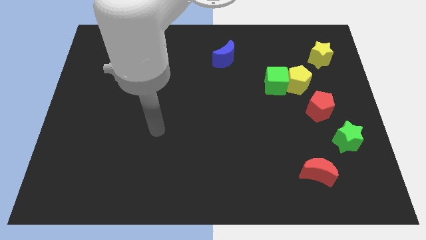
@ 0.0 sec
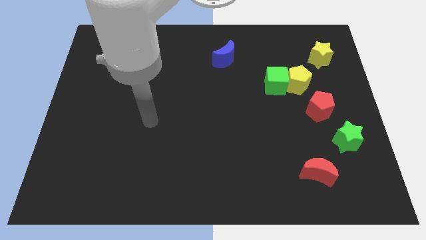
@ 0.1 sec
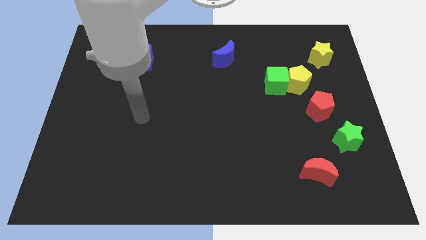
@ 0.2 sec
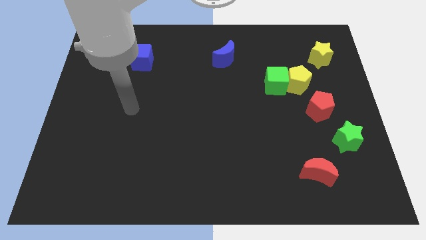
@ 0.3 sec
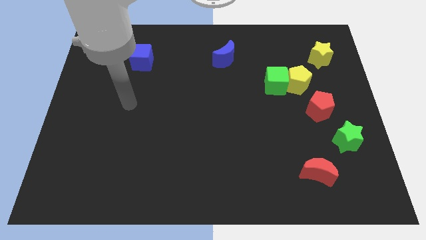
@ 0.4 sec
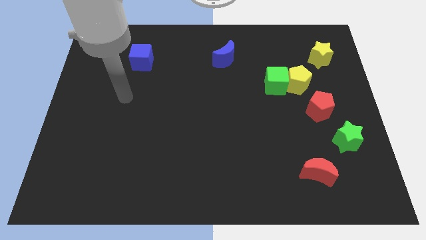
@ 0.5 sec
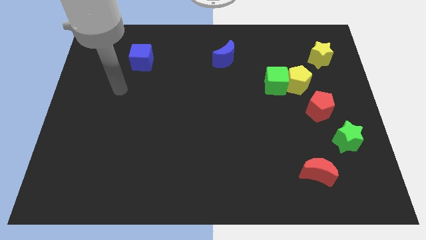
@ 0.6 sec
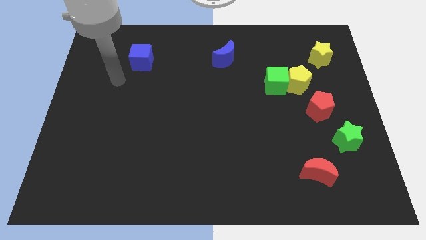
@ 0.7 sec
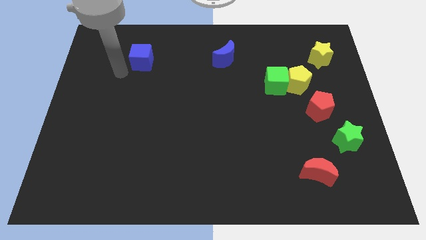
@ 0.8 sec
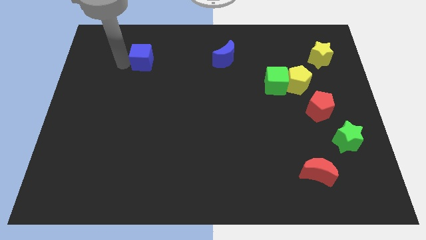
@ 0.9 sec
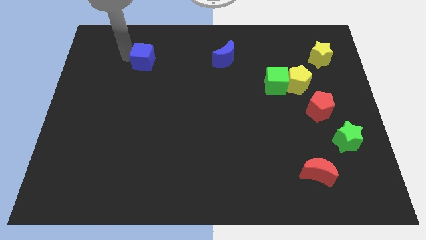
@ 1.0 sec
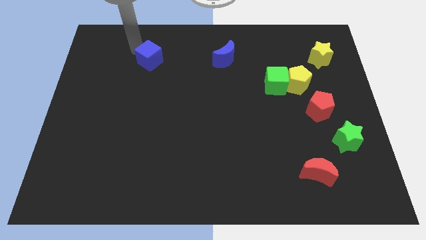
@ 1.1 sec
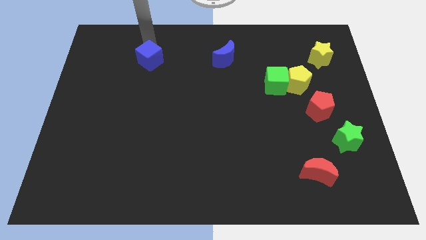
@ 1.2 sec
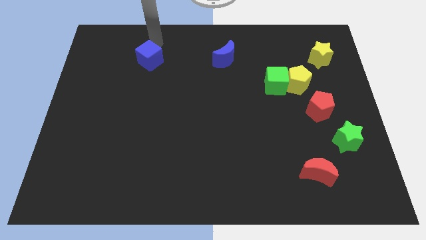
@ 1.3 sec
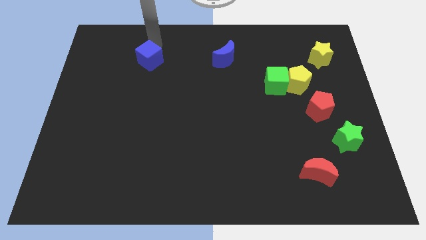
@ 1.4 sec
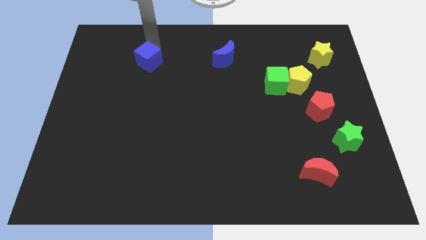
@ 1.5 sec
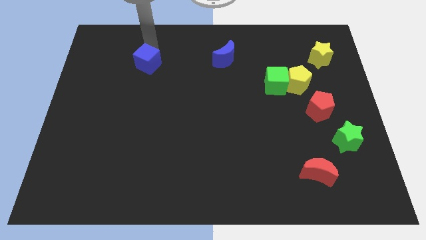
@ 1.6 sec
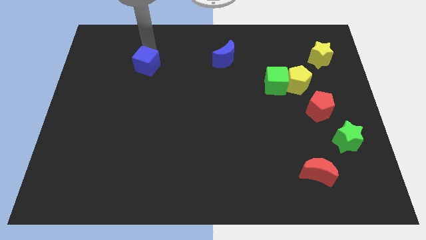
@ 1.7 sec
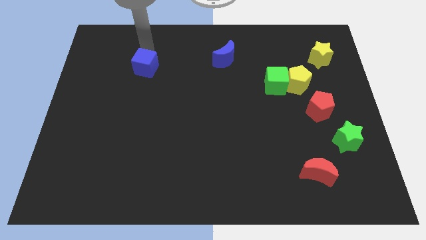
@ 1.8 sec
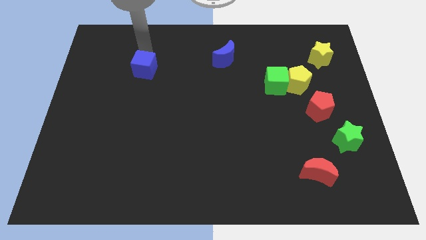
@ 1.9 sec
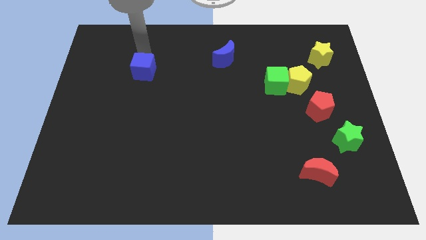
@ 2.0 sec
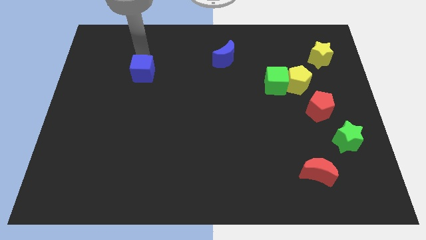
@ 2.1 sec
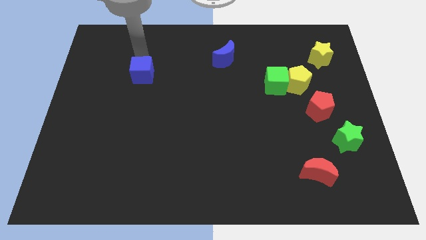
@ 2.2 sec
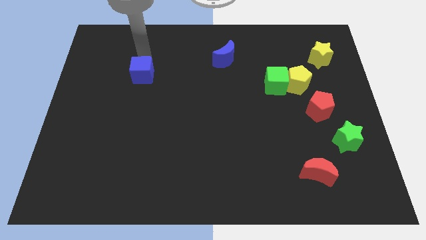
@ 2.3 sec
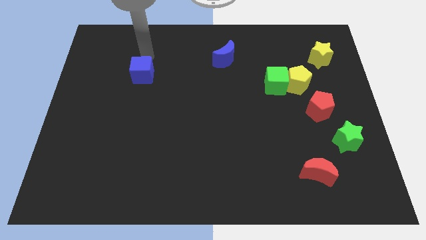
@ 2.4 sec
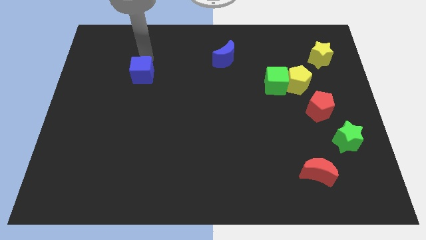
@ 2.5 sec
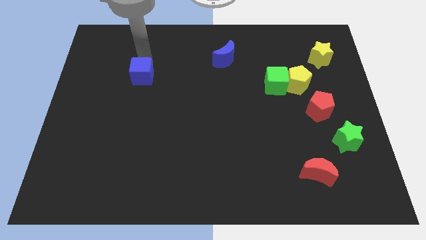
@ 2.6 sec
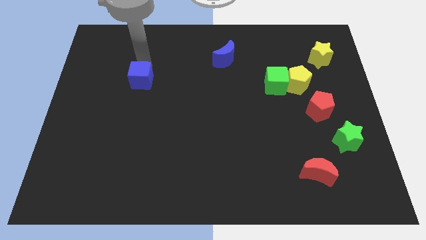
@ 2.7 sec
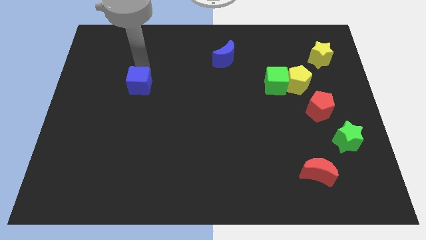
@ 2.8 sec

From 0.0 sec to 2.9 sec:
slide the blue cube a bit down

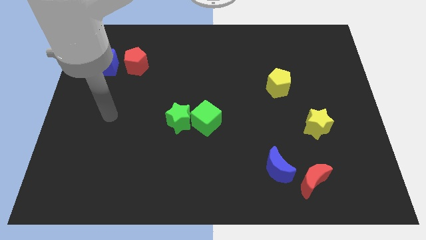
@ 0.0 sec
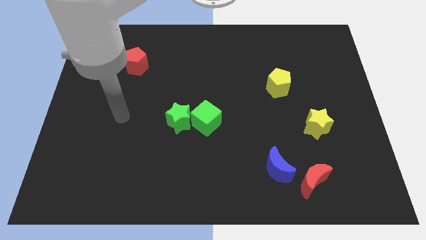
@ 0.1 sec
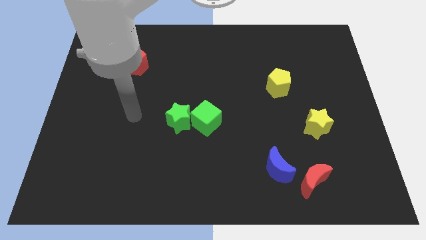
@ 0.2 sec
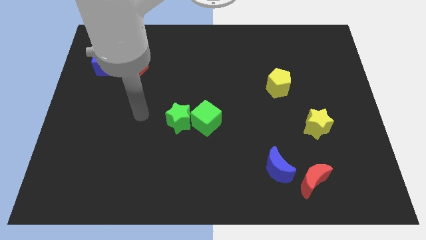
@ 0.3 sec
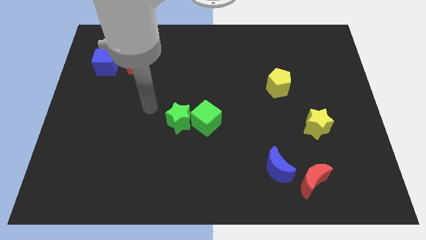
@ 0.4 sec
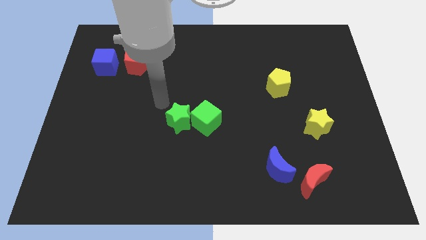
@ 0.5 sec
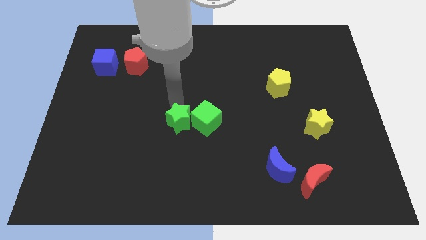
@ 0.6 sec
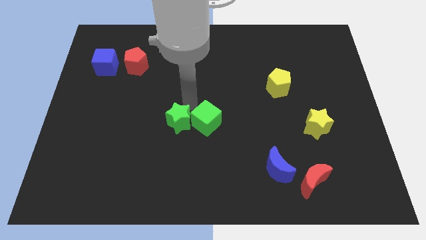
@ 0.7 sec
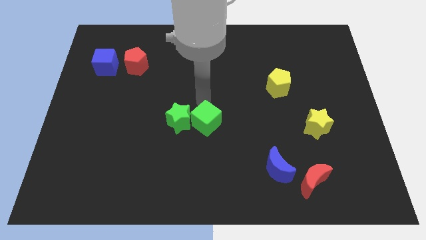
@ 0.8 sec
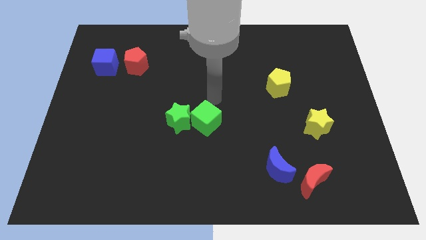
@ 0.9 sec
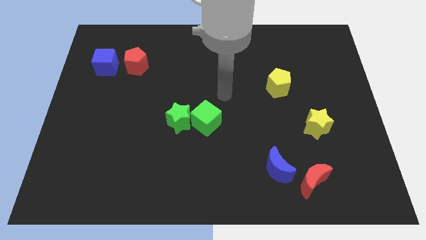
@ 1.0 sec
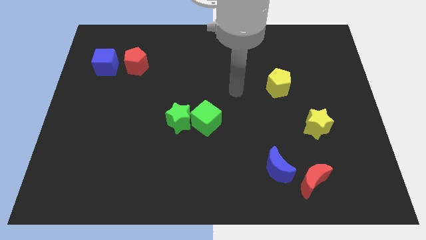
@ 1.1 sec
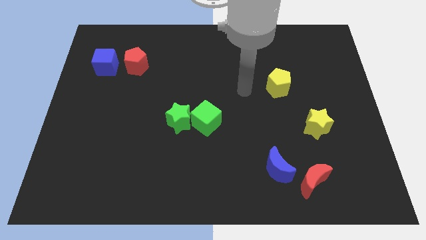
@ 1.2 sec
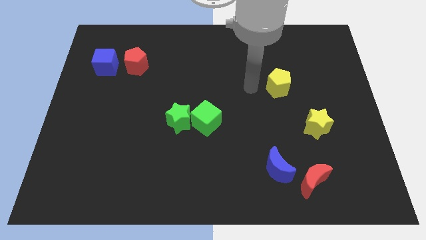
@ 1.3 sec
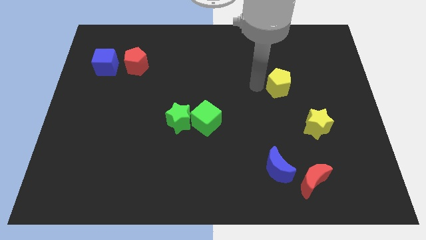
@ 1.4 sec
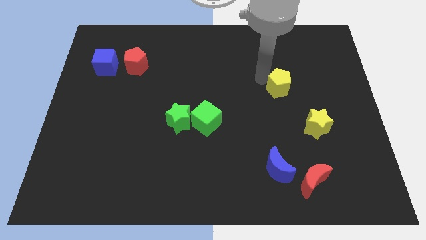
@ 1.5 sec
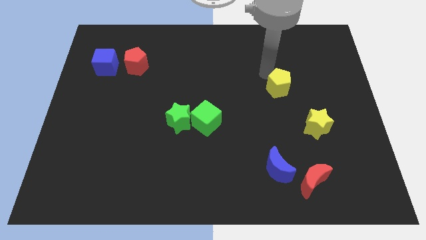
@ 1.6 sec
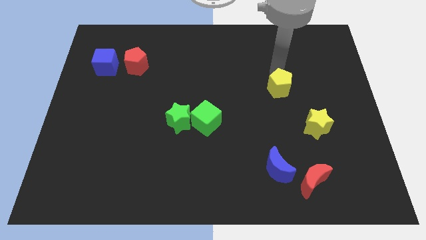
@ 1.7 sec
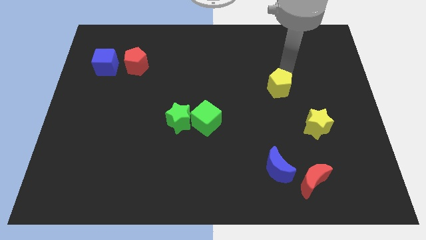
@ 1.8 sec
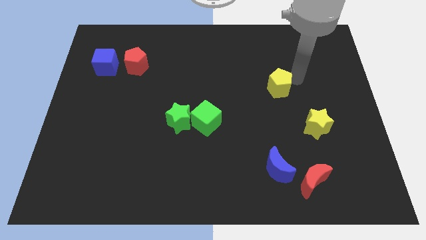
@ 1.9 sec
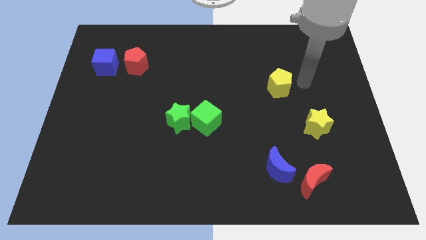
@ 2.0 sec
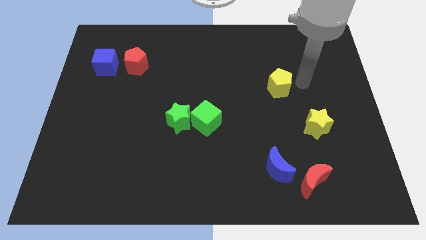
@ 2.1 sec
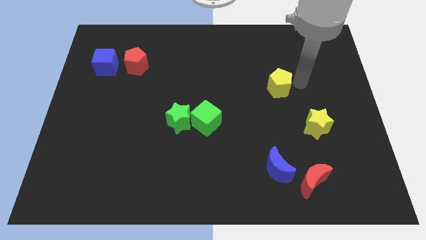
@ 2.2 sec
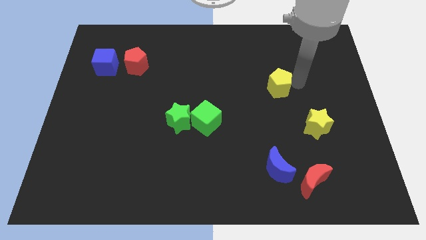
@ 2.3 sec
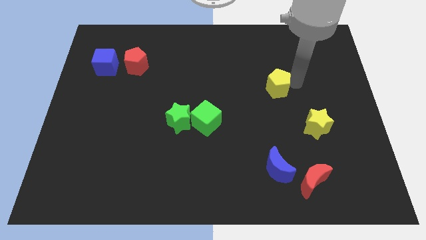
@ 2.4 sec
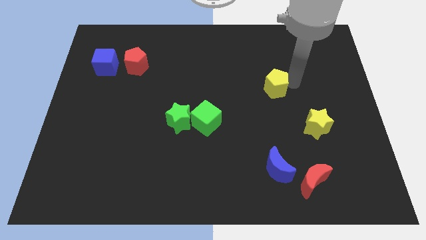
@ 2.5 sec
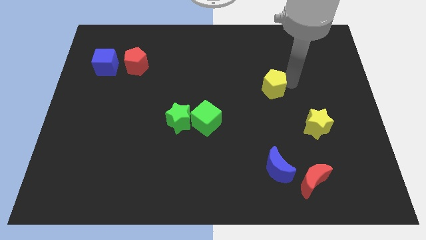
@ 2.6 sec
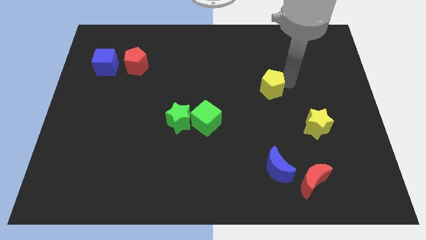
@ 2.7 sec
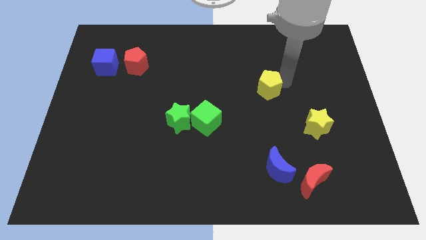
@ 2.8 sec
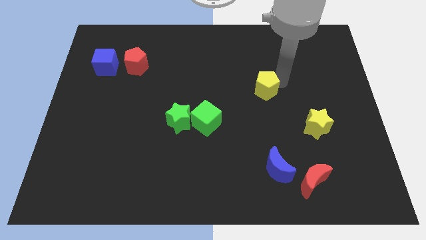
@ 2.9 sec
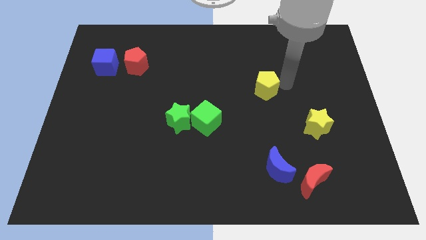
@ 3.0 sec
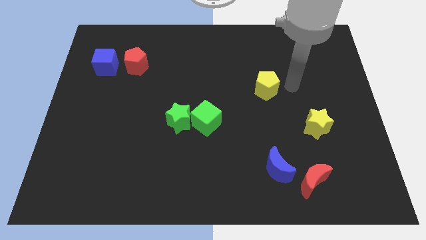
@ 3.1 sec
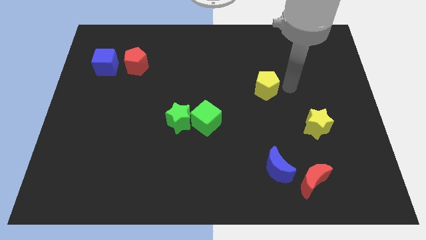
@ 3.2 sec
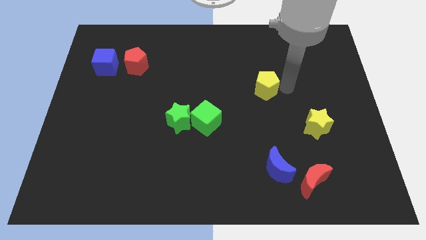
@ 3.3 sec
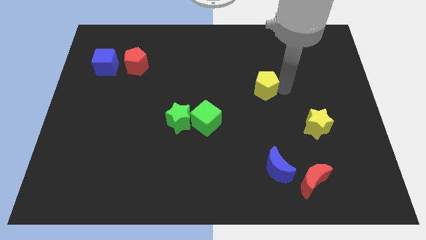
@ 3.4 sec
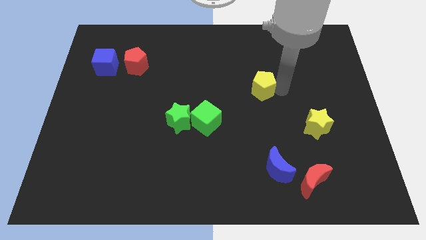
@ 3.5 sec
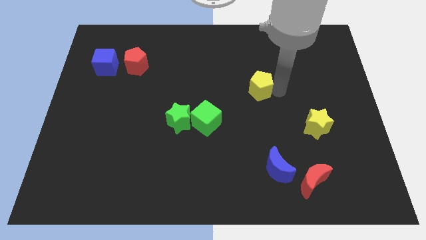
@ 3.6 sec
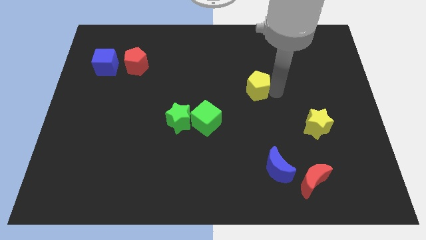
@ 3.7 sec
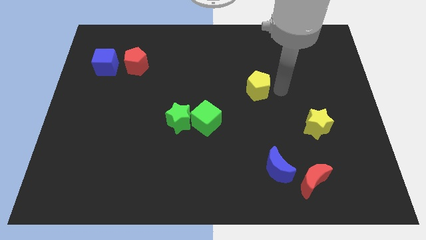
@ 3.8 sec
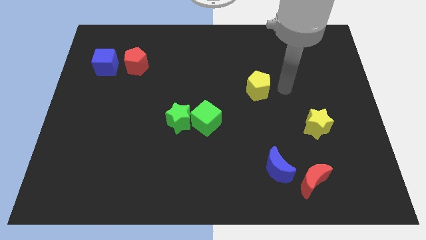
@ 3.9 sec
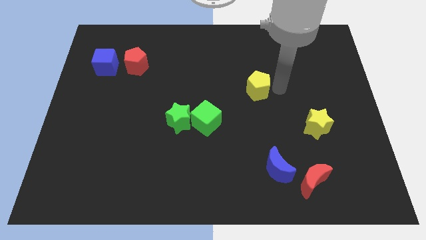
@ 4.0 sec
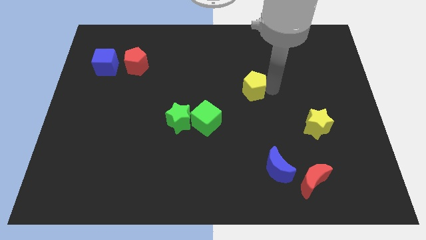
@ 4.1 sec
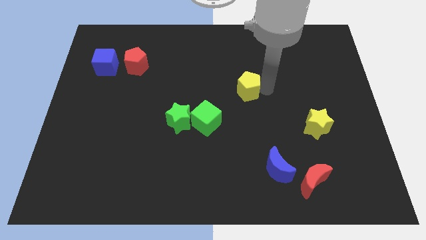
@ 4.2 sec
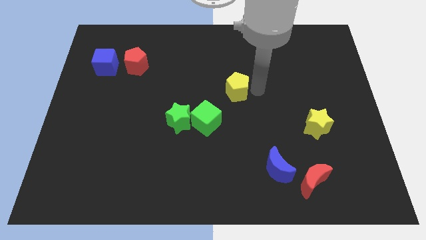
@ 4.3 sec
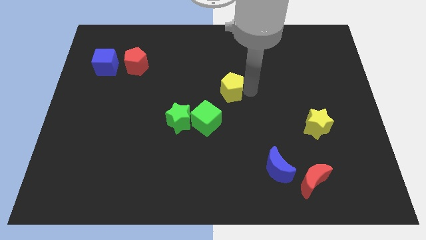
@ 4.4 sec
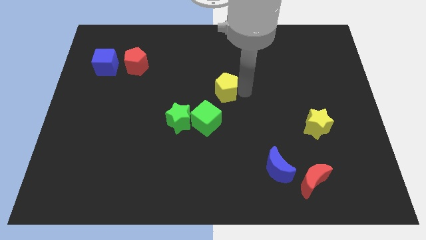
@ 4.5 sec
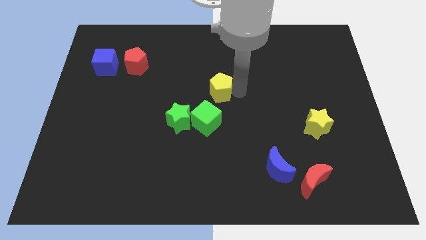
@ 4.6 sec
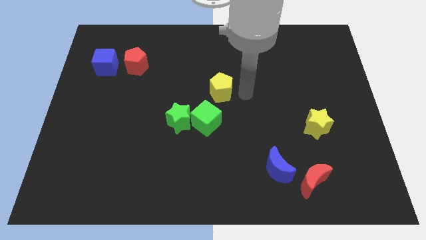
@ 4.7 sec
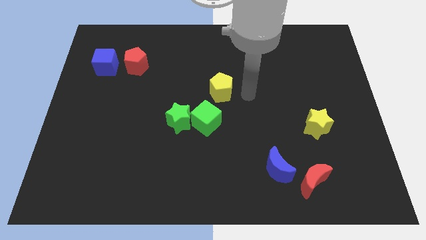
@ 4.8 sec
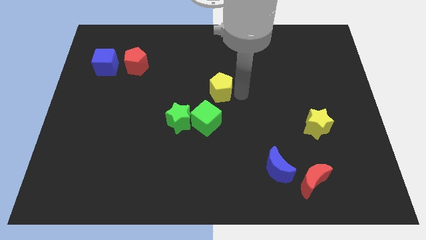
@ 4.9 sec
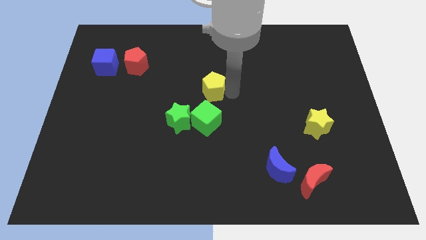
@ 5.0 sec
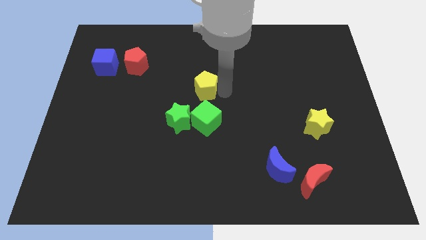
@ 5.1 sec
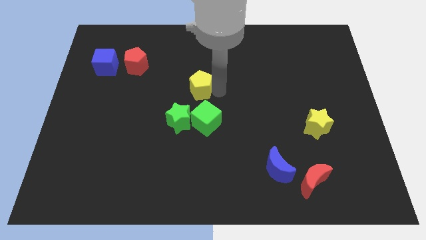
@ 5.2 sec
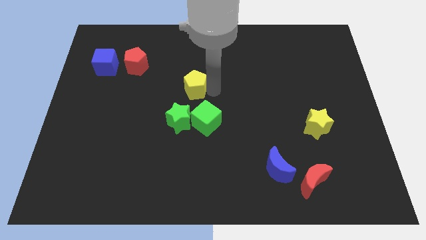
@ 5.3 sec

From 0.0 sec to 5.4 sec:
move the yellow pentagon to the left

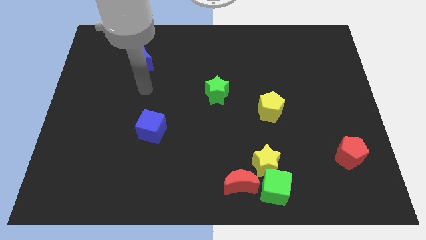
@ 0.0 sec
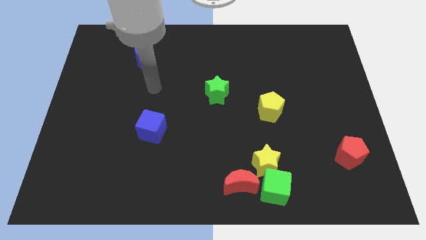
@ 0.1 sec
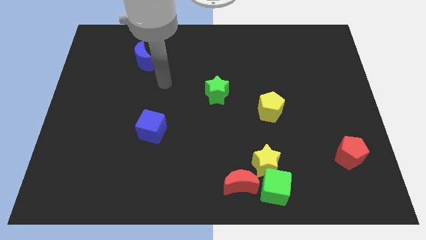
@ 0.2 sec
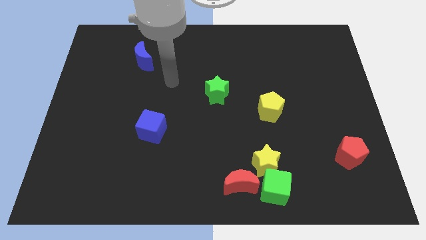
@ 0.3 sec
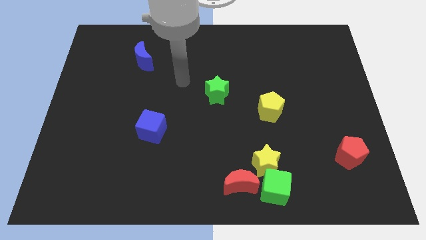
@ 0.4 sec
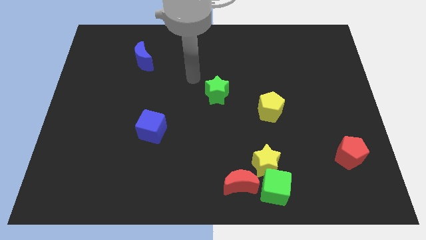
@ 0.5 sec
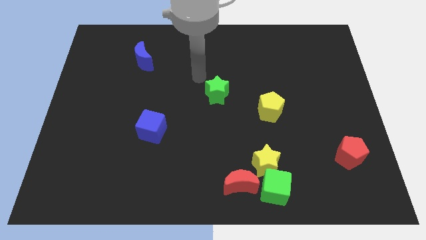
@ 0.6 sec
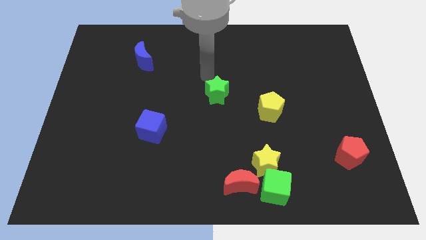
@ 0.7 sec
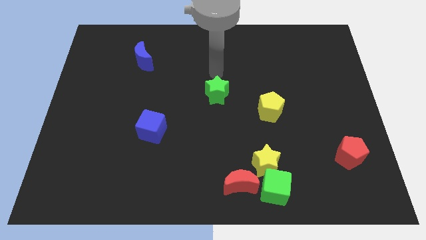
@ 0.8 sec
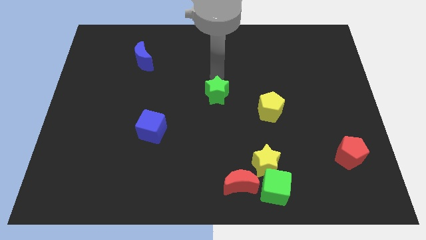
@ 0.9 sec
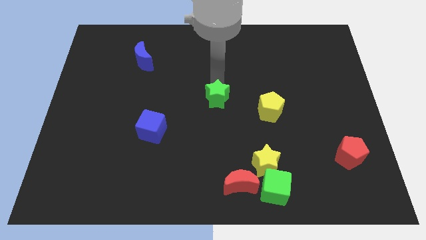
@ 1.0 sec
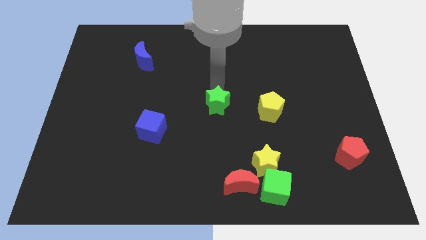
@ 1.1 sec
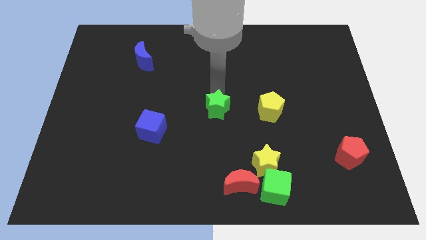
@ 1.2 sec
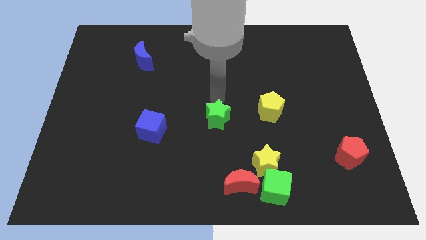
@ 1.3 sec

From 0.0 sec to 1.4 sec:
slightly slide the green star downwards
